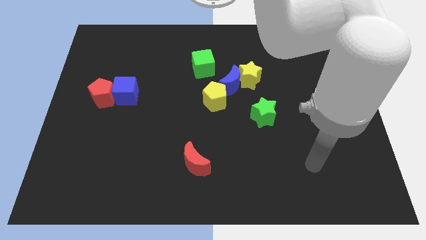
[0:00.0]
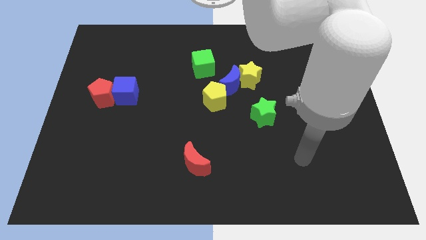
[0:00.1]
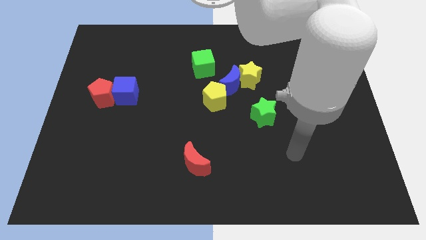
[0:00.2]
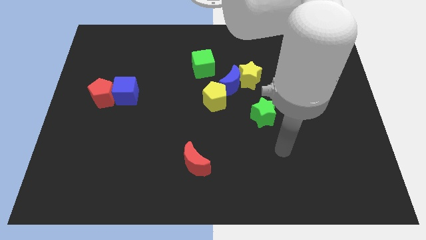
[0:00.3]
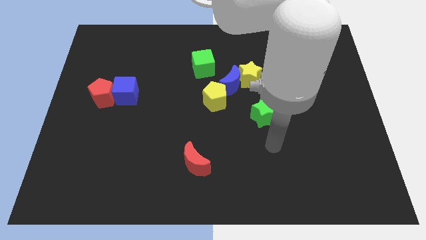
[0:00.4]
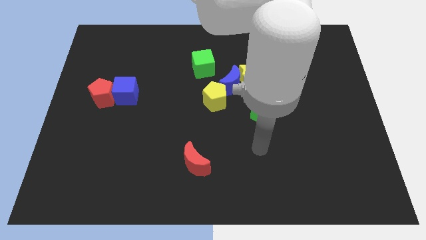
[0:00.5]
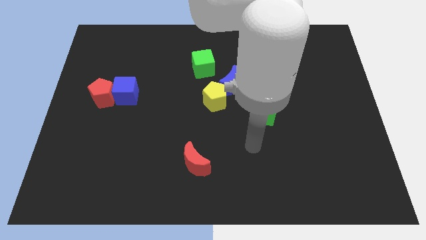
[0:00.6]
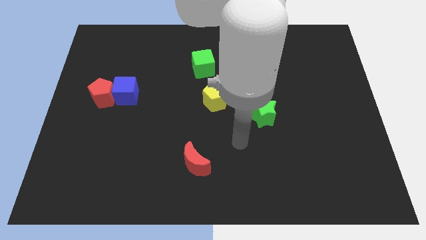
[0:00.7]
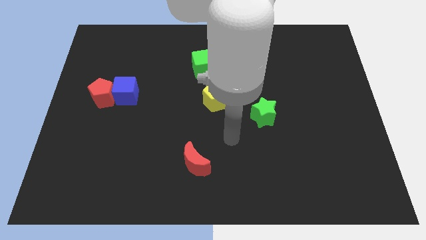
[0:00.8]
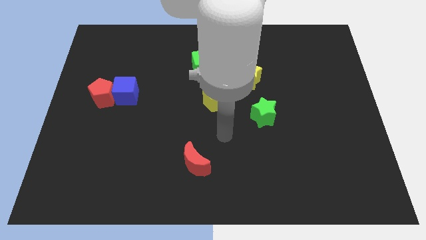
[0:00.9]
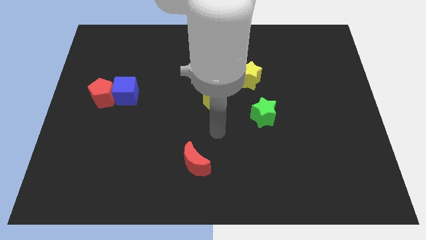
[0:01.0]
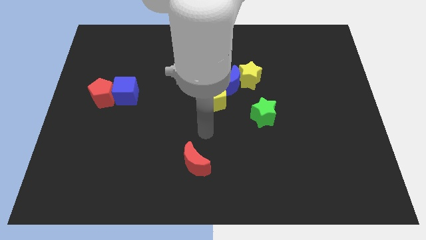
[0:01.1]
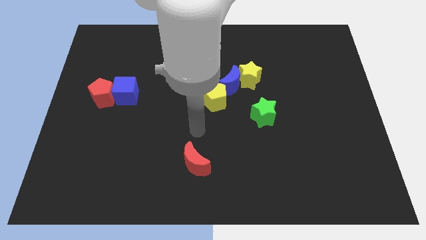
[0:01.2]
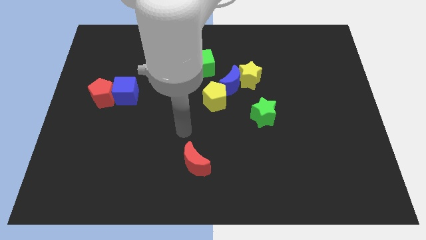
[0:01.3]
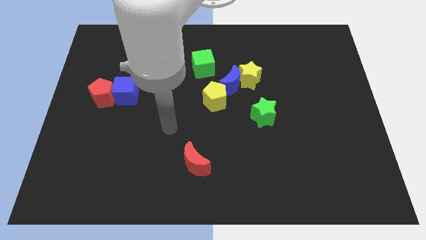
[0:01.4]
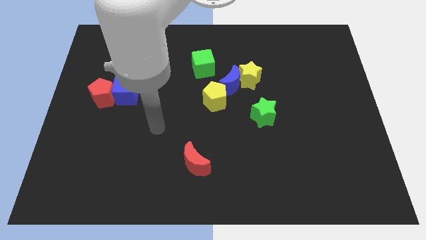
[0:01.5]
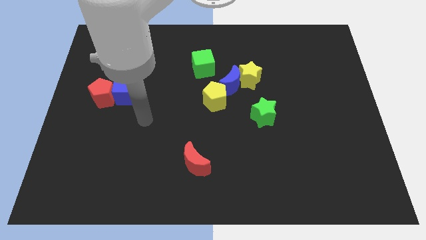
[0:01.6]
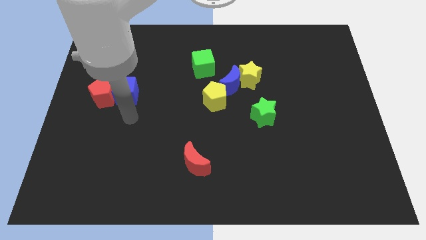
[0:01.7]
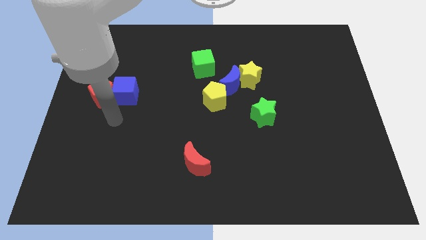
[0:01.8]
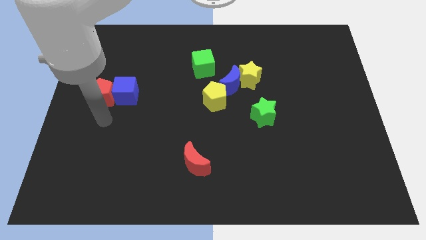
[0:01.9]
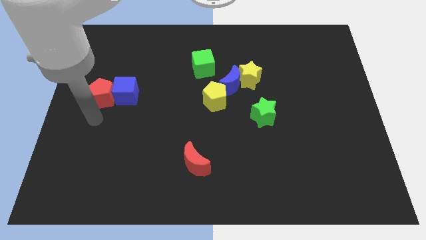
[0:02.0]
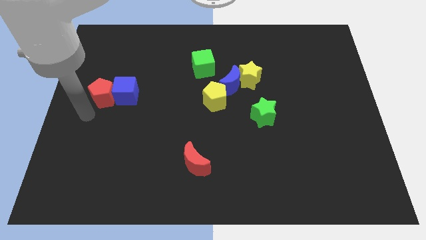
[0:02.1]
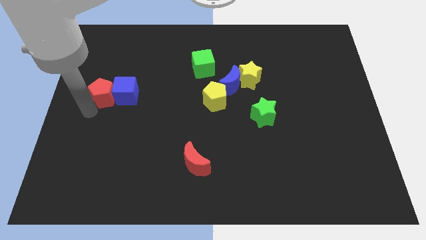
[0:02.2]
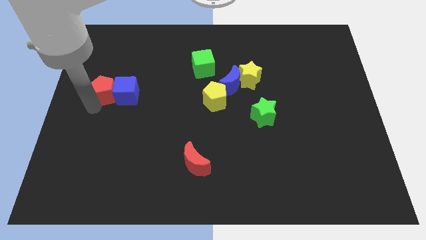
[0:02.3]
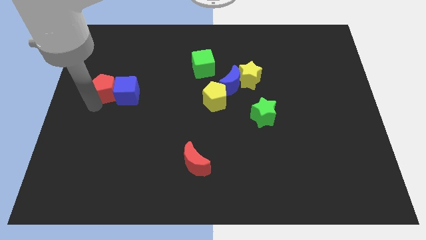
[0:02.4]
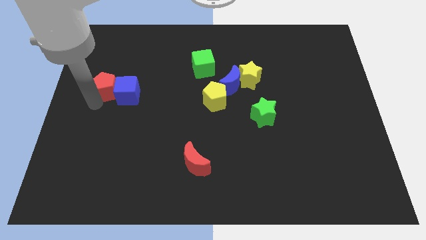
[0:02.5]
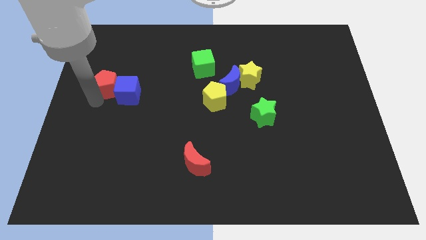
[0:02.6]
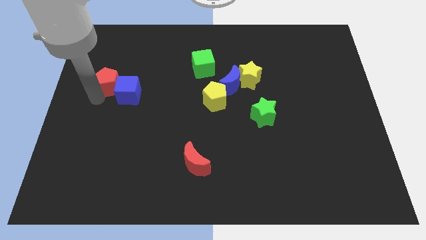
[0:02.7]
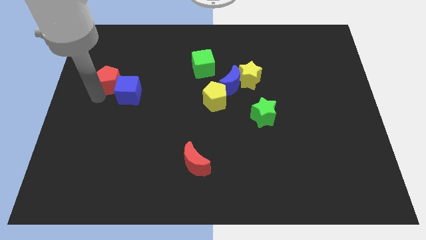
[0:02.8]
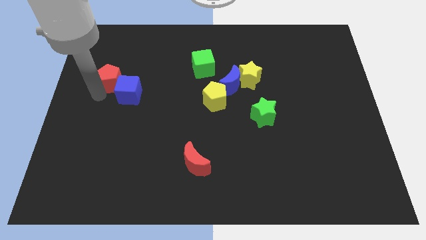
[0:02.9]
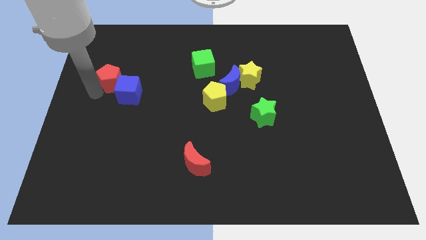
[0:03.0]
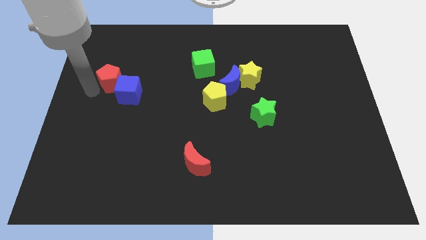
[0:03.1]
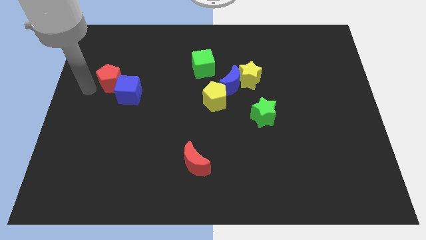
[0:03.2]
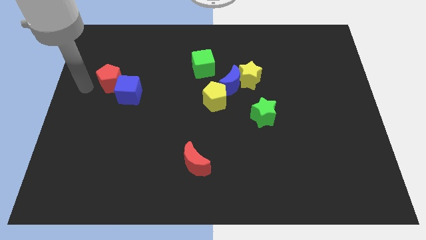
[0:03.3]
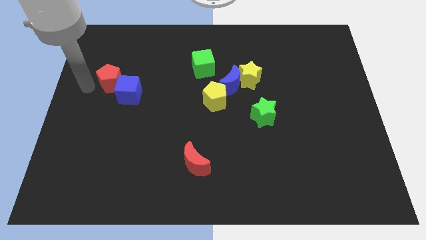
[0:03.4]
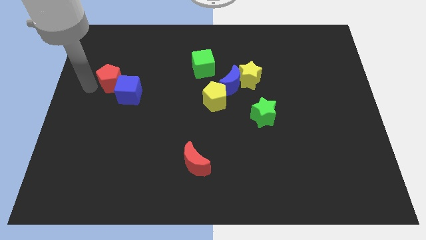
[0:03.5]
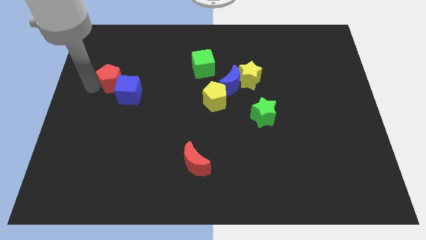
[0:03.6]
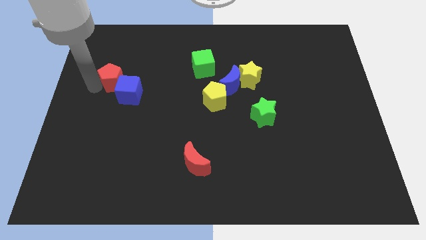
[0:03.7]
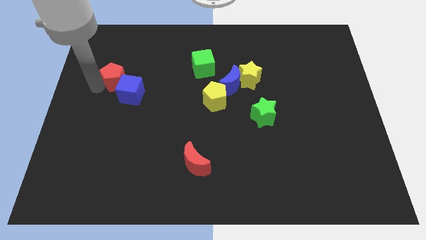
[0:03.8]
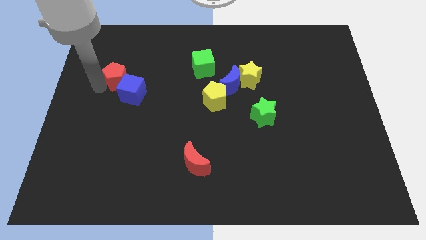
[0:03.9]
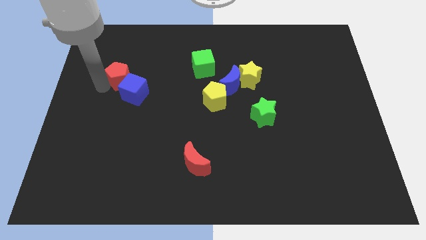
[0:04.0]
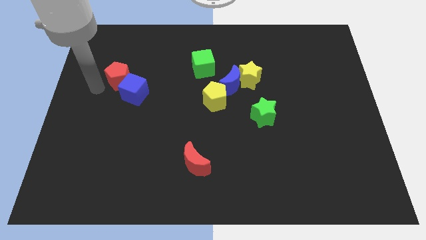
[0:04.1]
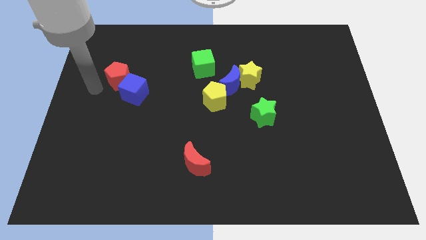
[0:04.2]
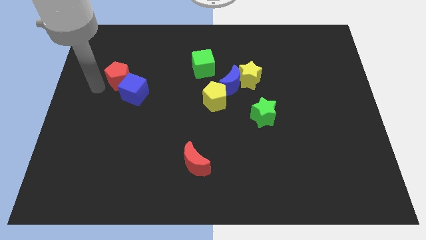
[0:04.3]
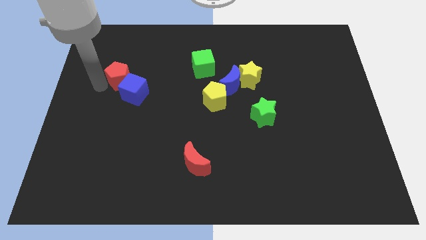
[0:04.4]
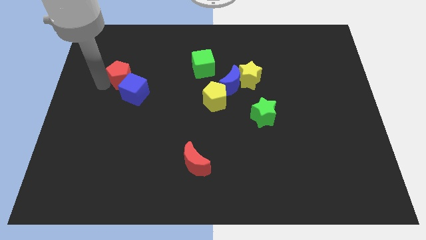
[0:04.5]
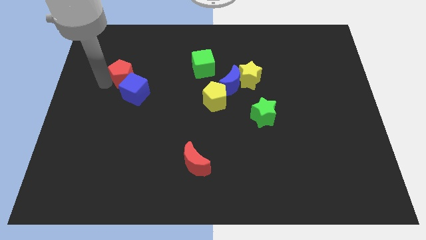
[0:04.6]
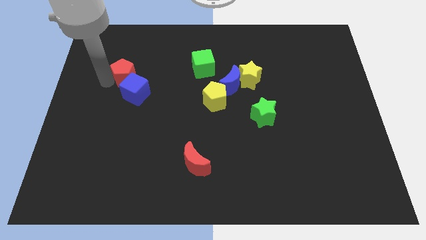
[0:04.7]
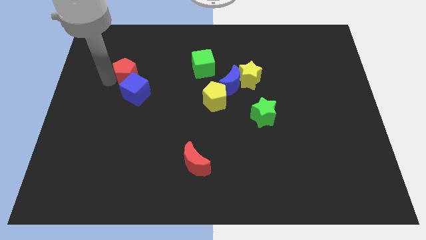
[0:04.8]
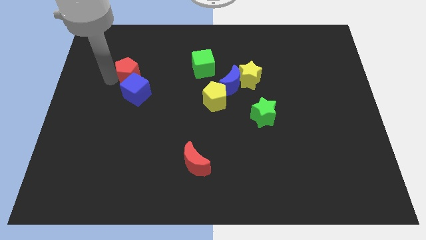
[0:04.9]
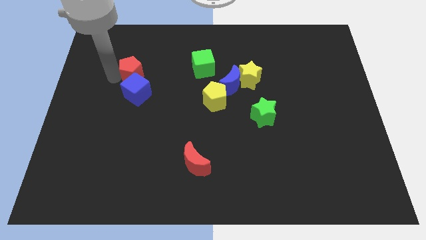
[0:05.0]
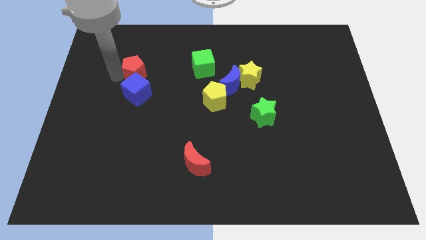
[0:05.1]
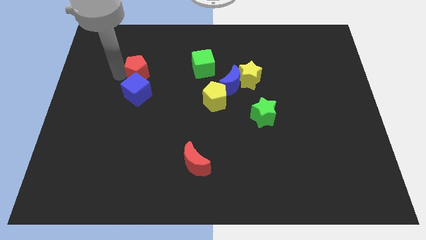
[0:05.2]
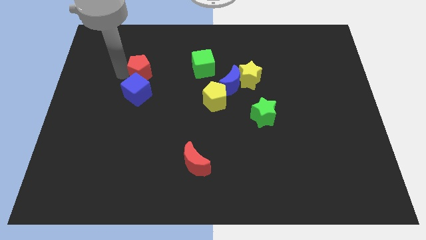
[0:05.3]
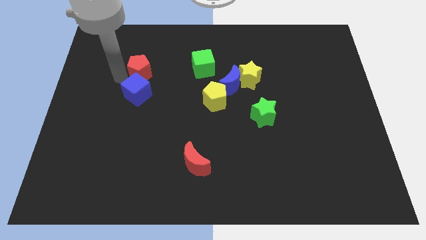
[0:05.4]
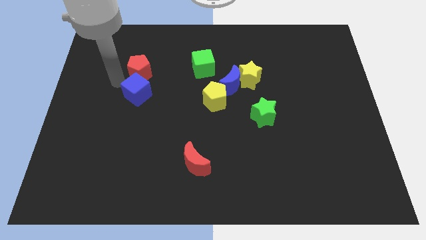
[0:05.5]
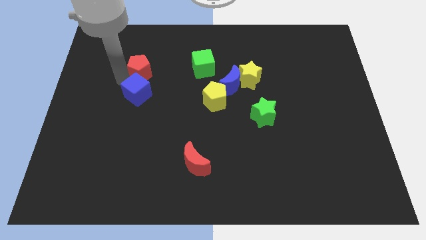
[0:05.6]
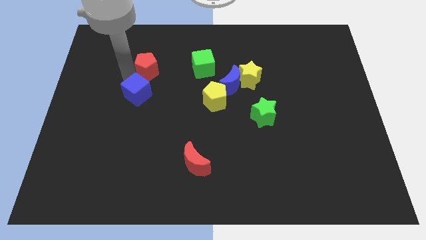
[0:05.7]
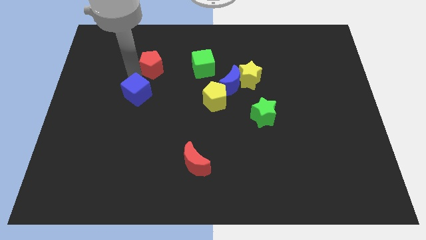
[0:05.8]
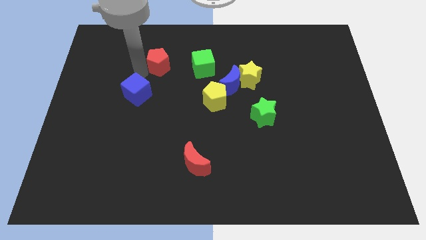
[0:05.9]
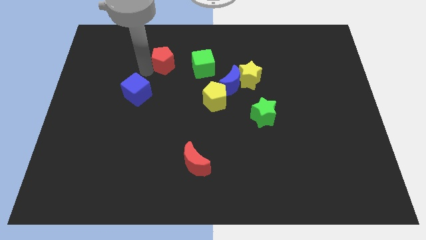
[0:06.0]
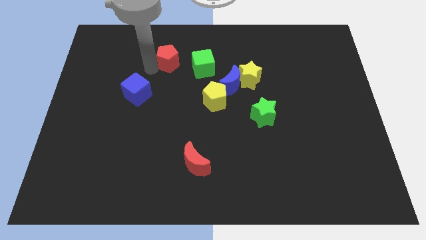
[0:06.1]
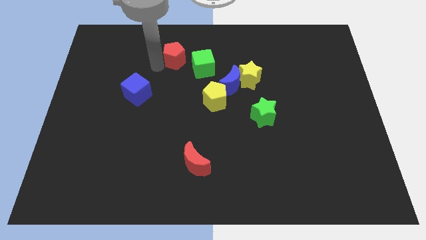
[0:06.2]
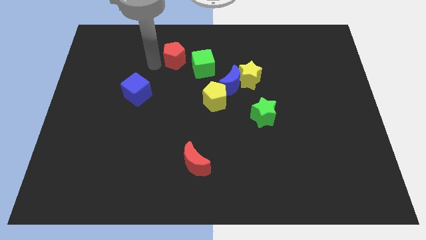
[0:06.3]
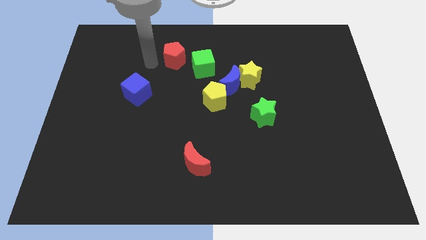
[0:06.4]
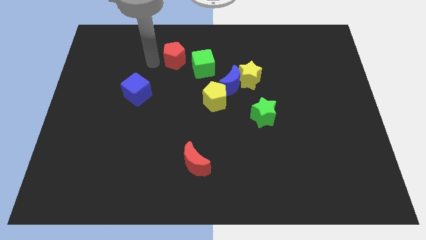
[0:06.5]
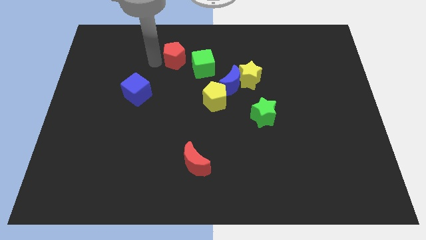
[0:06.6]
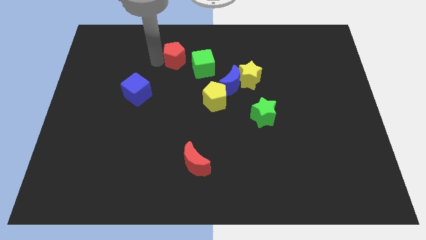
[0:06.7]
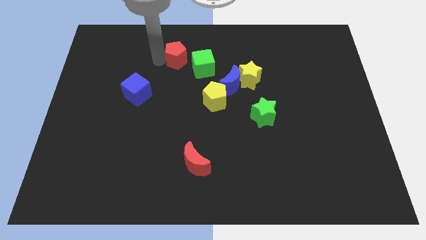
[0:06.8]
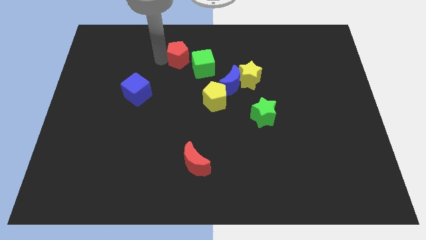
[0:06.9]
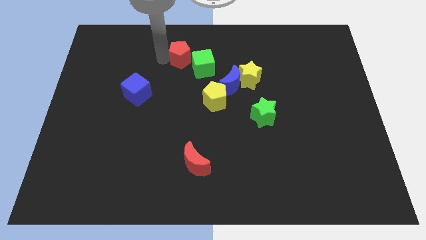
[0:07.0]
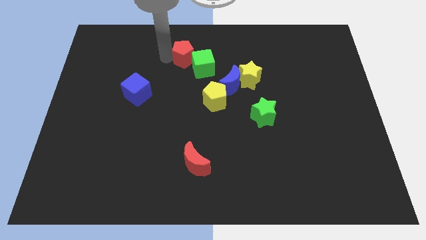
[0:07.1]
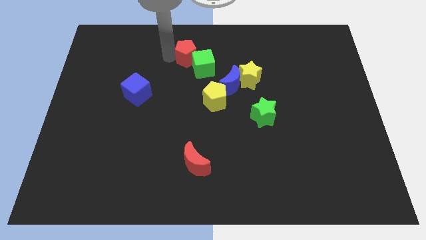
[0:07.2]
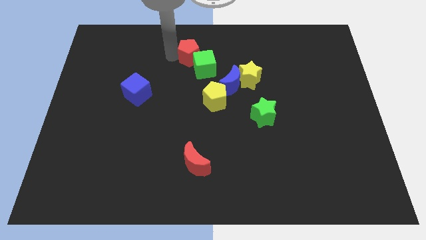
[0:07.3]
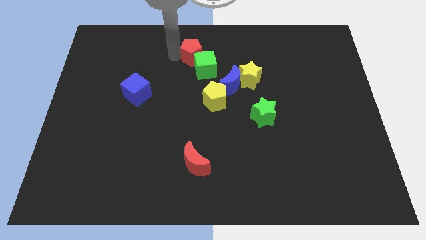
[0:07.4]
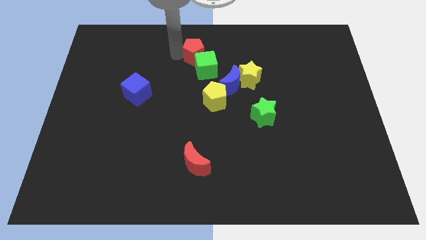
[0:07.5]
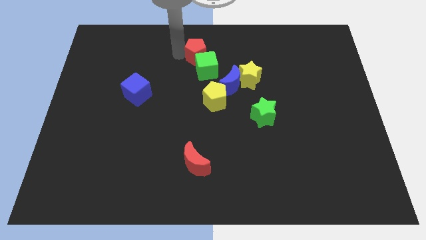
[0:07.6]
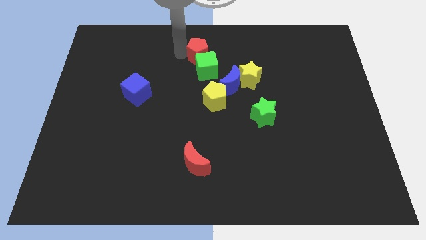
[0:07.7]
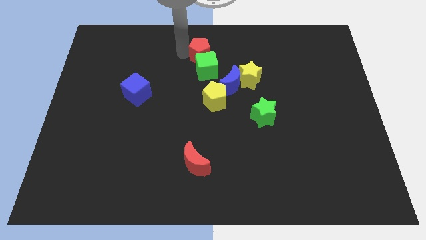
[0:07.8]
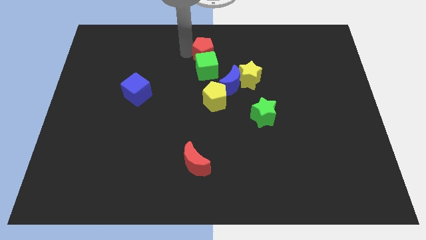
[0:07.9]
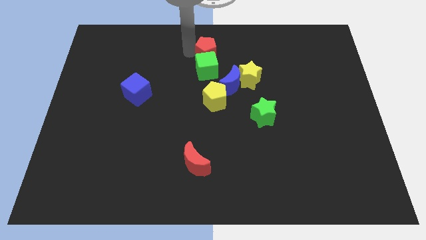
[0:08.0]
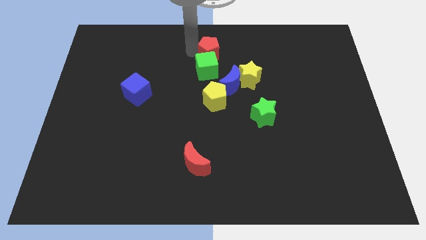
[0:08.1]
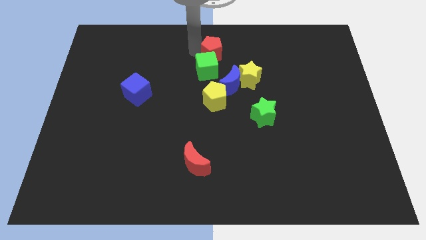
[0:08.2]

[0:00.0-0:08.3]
slide the red pentagon to the top of the blue moon
